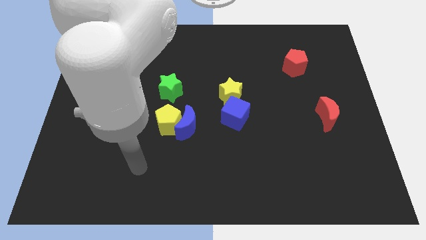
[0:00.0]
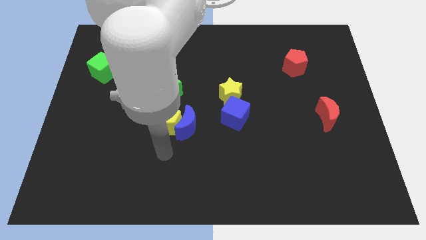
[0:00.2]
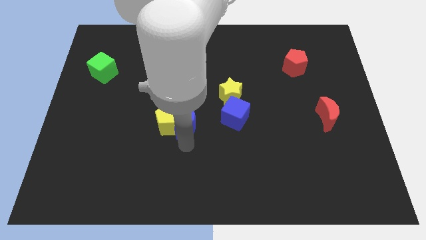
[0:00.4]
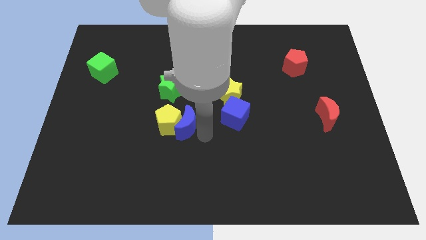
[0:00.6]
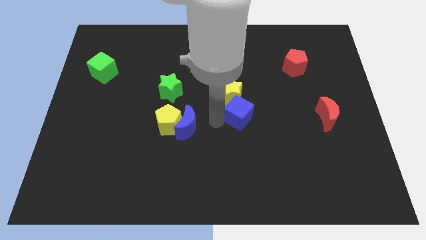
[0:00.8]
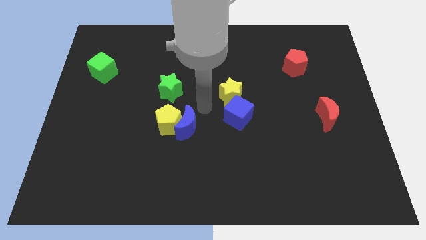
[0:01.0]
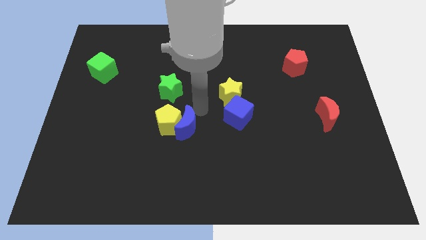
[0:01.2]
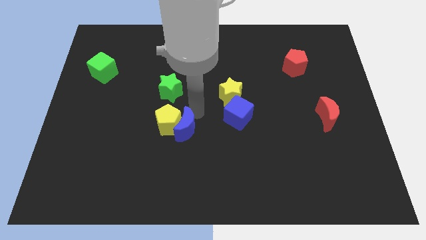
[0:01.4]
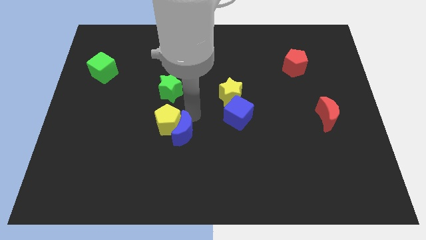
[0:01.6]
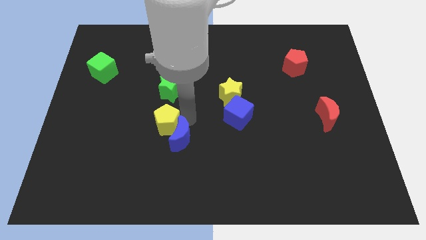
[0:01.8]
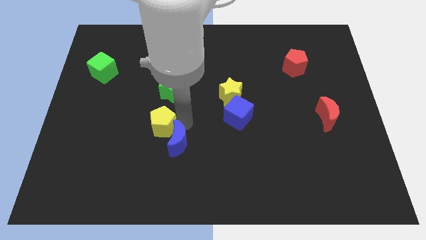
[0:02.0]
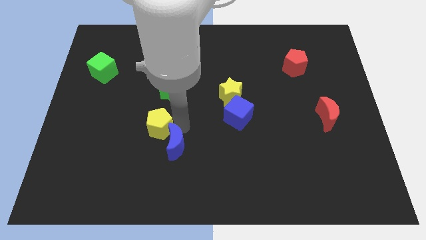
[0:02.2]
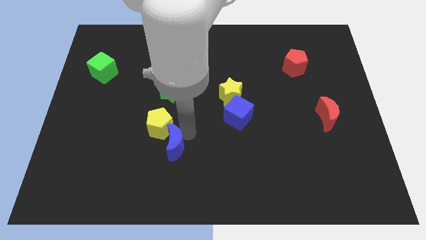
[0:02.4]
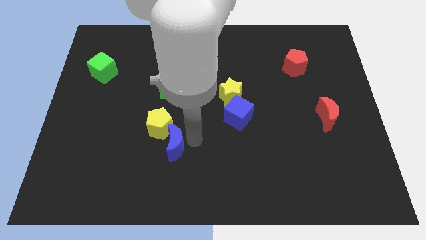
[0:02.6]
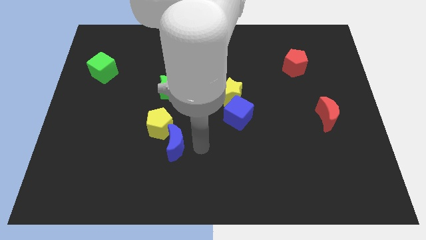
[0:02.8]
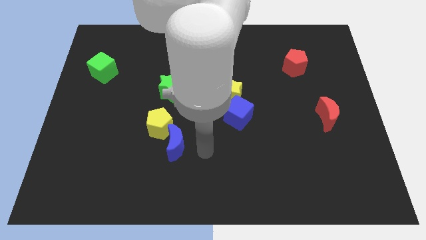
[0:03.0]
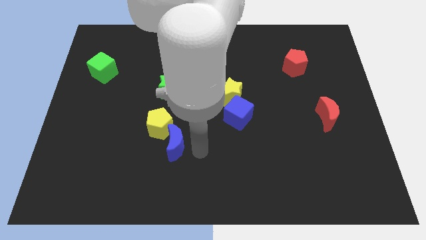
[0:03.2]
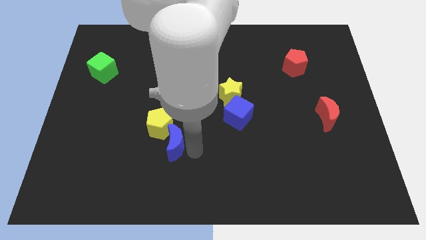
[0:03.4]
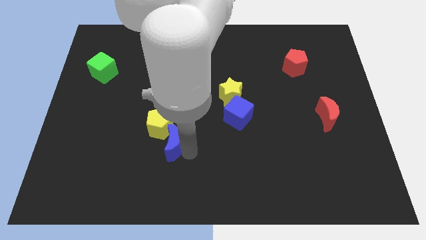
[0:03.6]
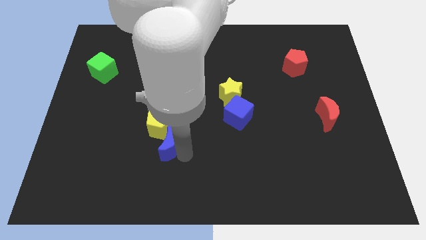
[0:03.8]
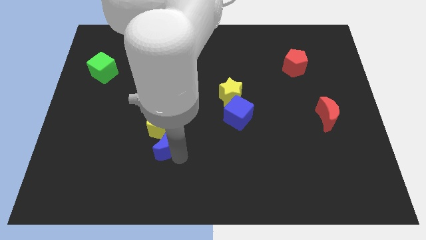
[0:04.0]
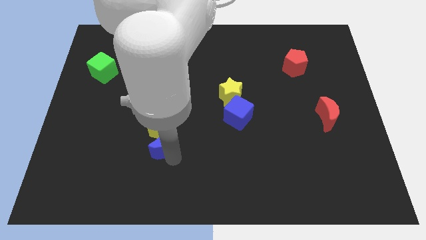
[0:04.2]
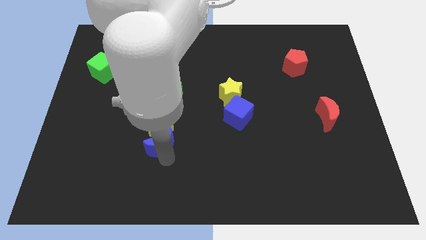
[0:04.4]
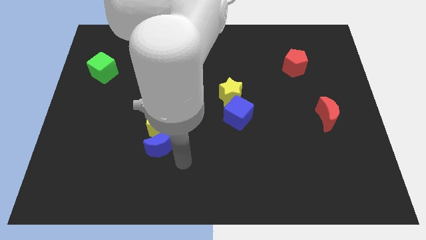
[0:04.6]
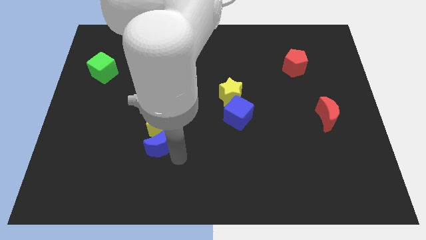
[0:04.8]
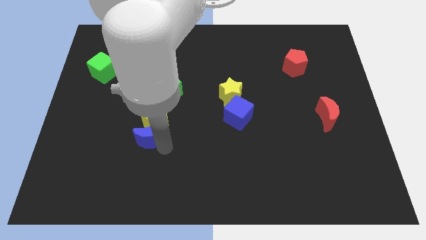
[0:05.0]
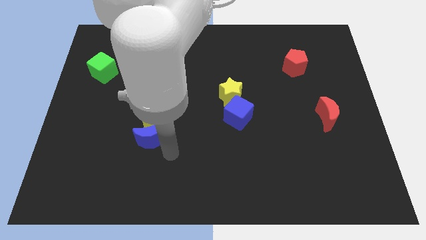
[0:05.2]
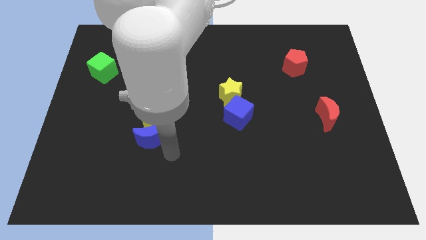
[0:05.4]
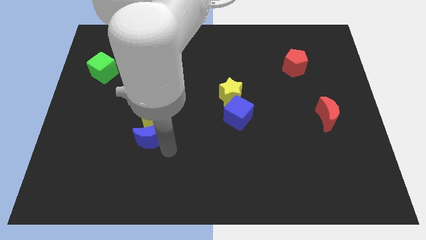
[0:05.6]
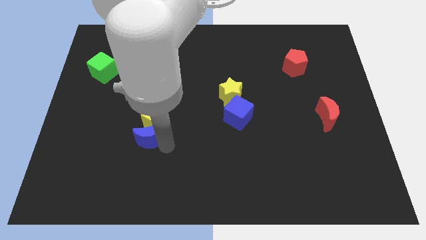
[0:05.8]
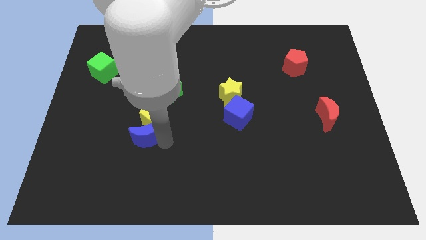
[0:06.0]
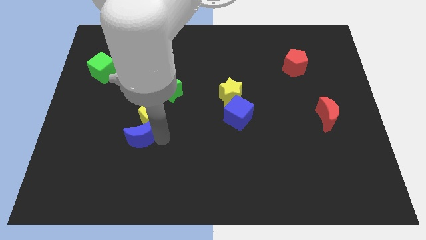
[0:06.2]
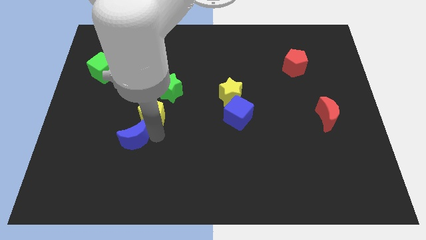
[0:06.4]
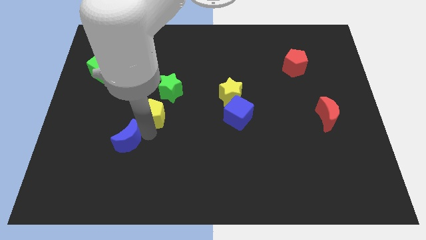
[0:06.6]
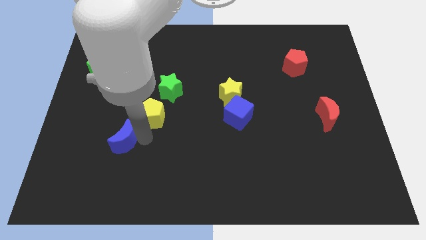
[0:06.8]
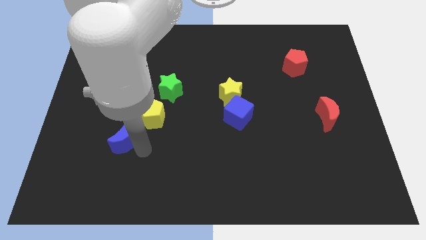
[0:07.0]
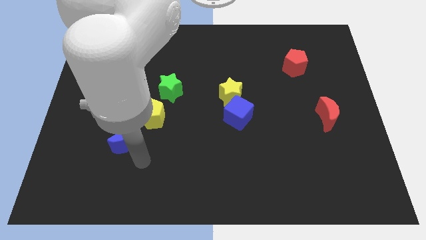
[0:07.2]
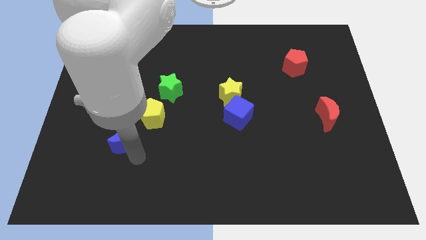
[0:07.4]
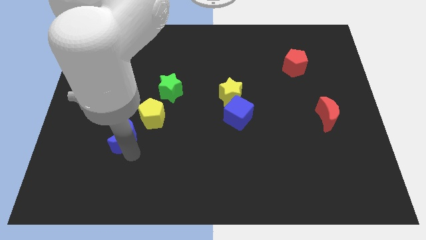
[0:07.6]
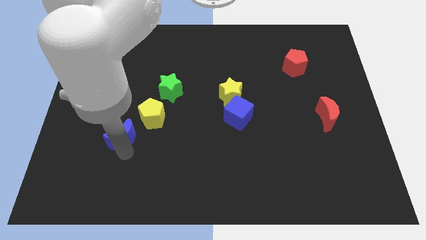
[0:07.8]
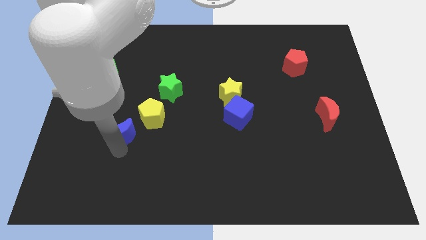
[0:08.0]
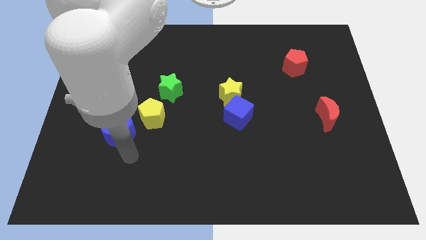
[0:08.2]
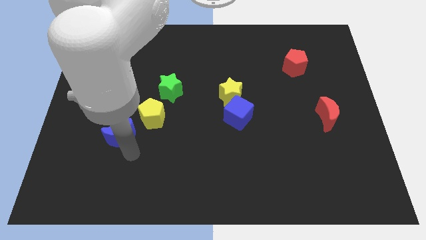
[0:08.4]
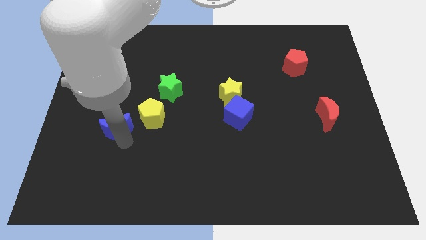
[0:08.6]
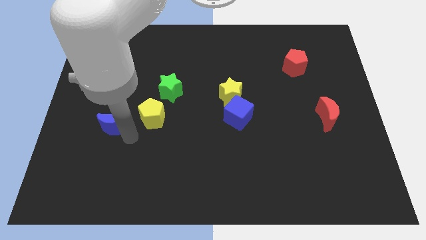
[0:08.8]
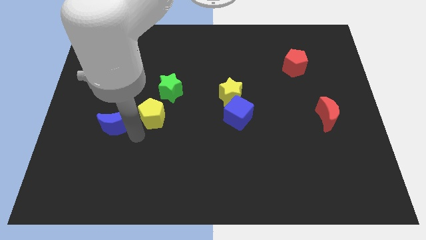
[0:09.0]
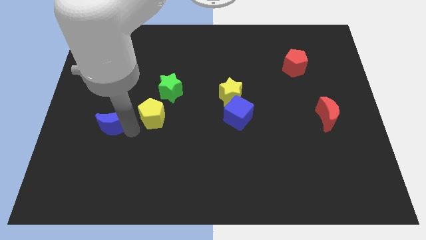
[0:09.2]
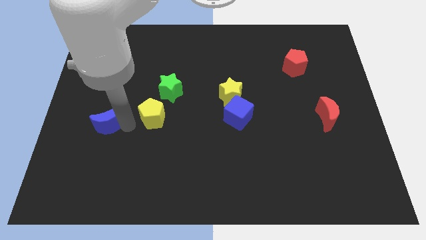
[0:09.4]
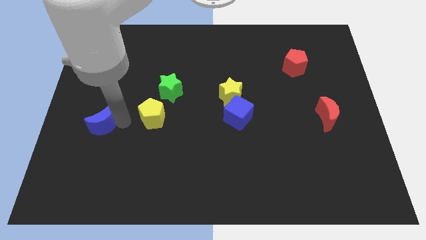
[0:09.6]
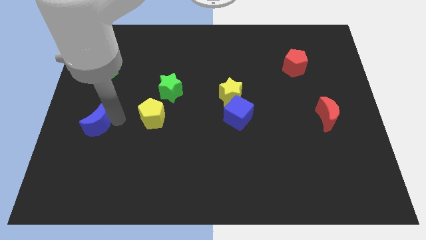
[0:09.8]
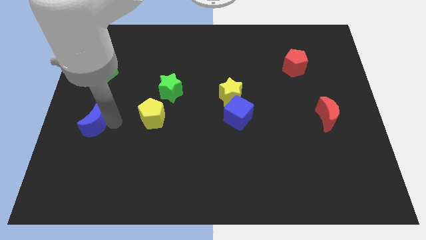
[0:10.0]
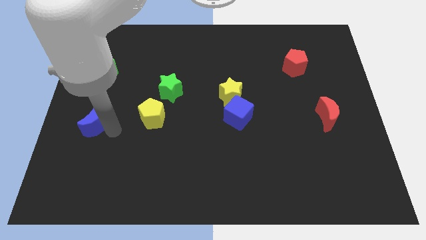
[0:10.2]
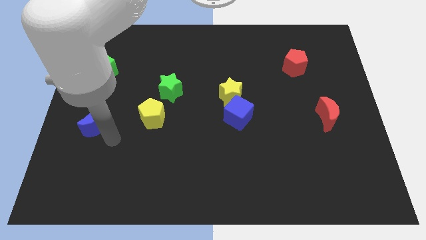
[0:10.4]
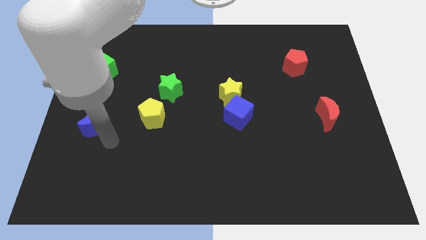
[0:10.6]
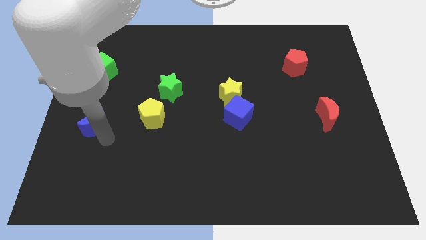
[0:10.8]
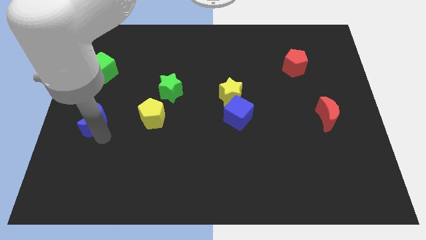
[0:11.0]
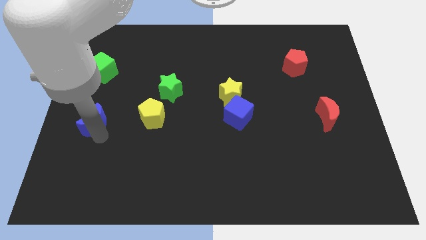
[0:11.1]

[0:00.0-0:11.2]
push the blue moon to the left side of the board

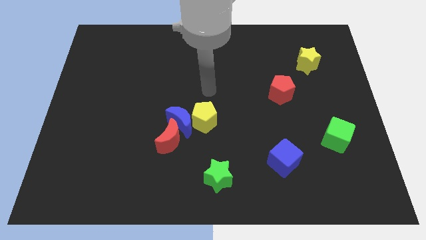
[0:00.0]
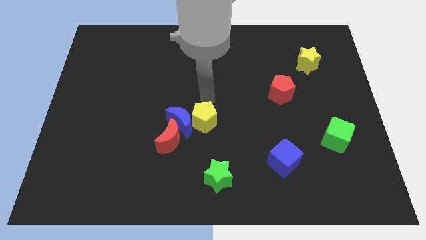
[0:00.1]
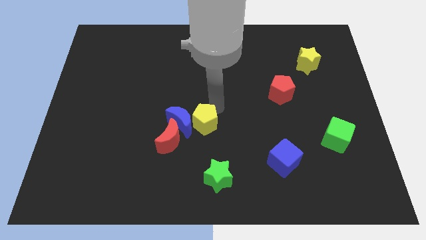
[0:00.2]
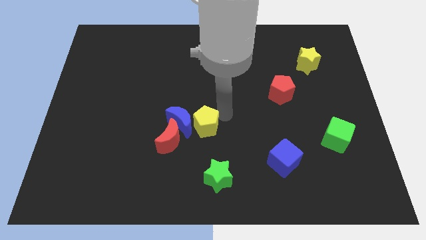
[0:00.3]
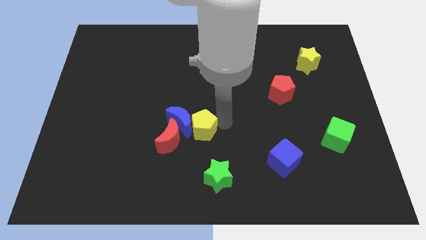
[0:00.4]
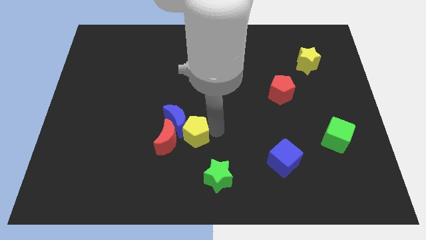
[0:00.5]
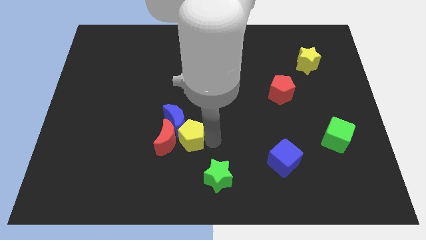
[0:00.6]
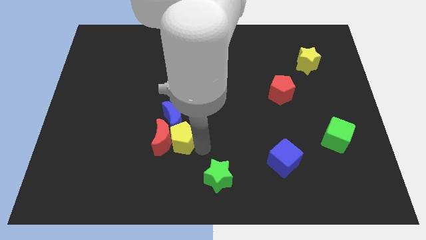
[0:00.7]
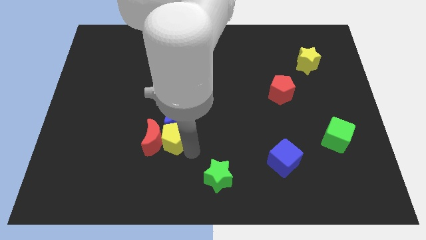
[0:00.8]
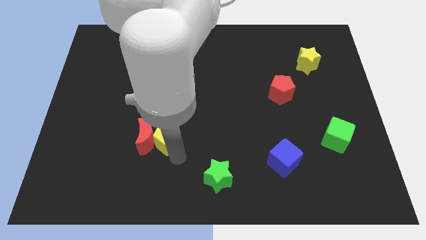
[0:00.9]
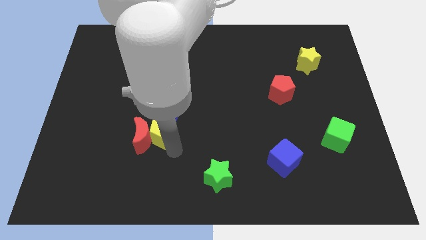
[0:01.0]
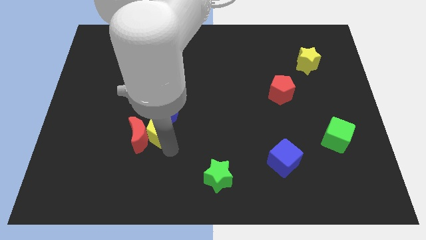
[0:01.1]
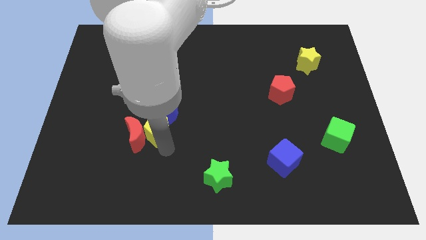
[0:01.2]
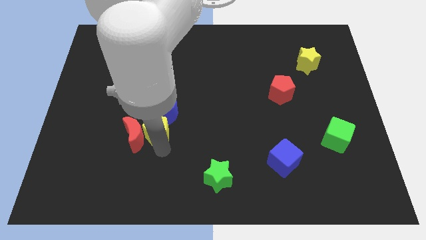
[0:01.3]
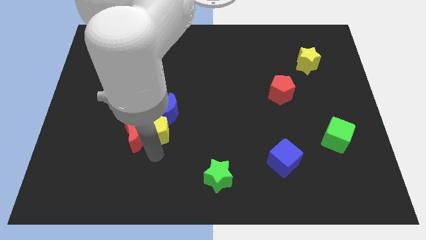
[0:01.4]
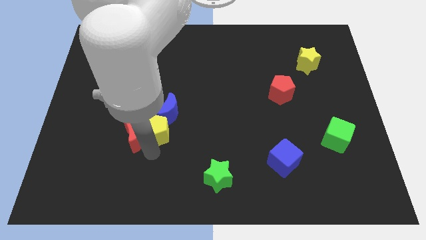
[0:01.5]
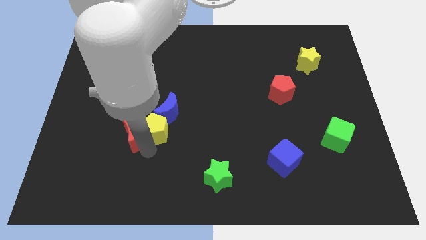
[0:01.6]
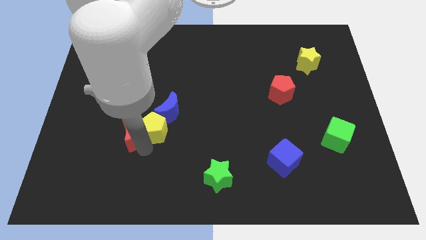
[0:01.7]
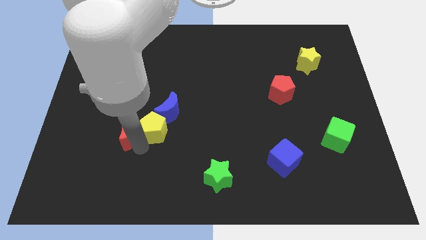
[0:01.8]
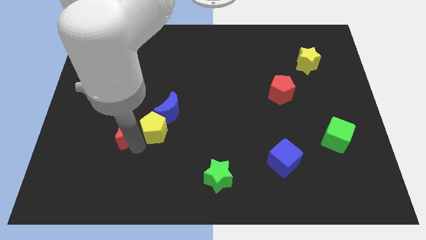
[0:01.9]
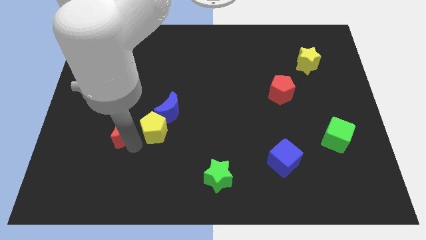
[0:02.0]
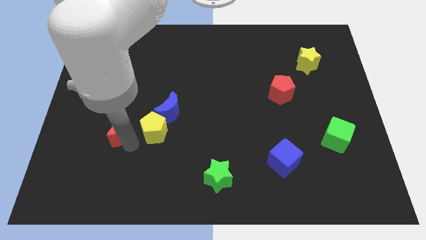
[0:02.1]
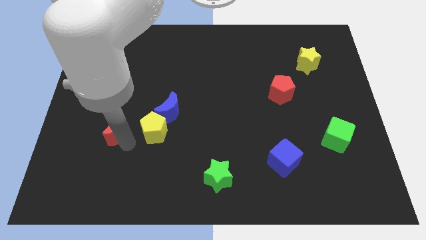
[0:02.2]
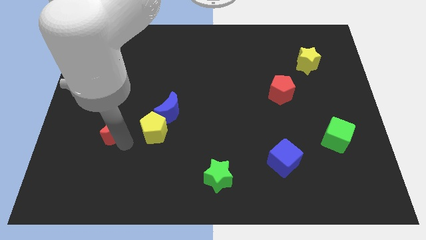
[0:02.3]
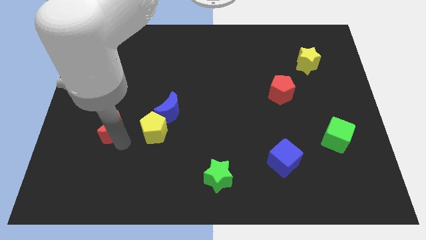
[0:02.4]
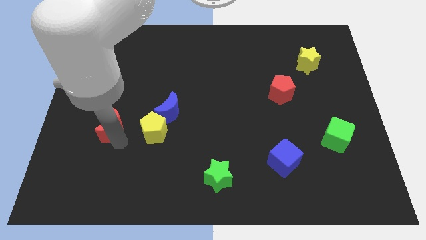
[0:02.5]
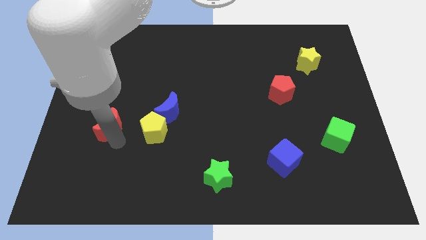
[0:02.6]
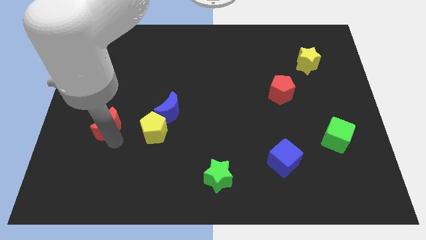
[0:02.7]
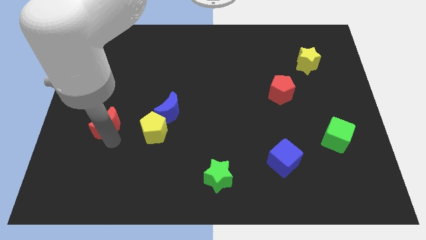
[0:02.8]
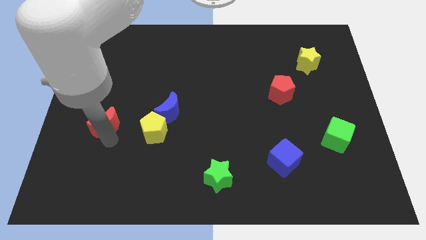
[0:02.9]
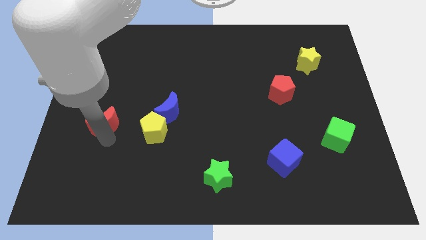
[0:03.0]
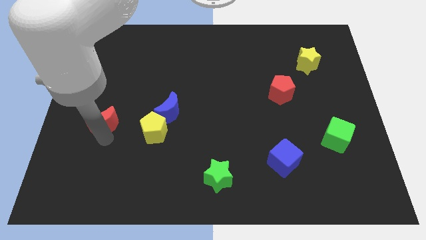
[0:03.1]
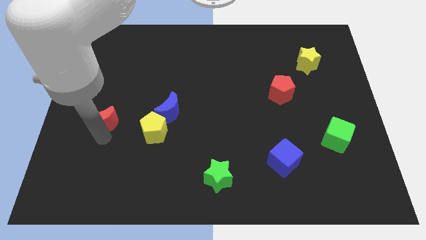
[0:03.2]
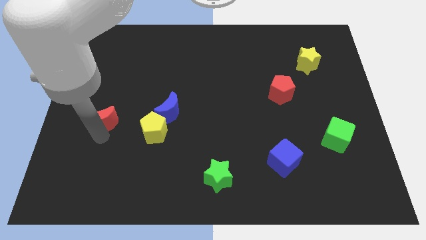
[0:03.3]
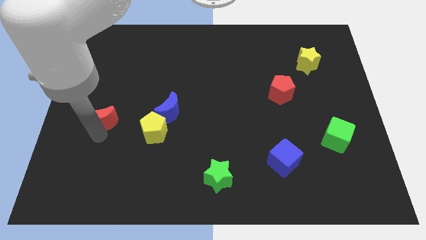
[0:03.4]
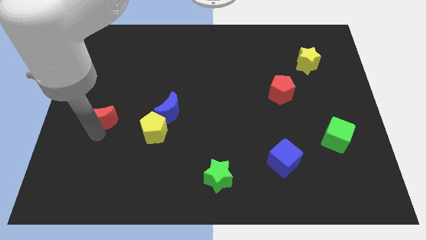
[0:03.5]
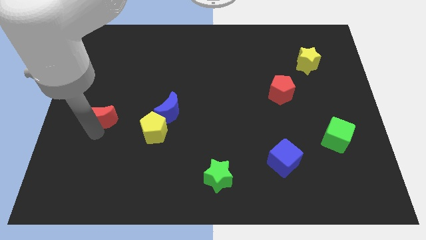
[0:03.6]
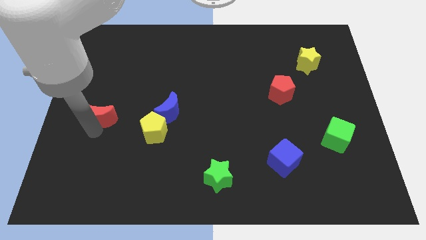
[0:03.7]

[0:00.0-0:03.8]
put the red moon to the left side
